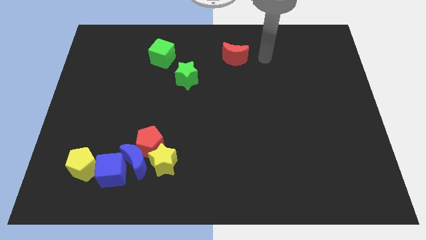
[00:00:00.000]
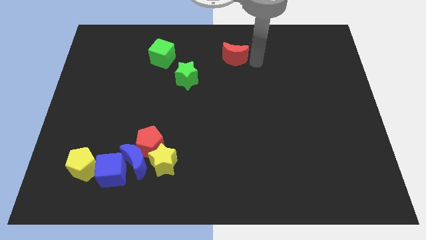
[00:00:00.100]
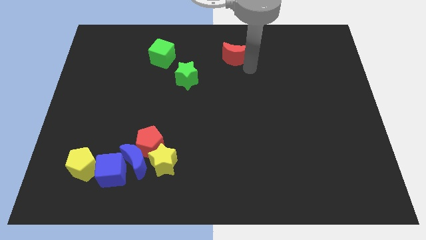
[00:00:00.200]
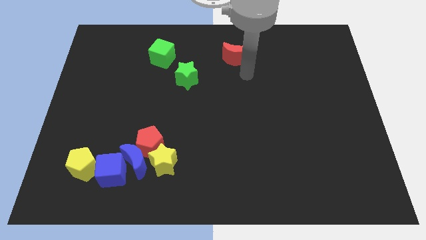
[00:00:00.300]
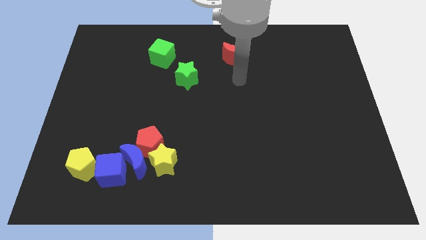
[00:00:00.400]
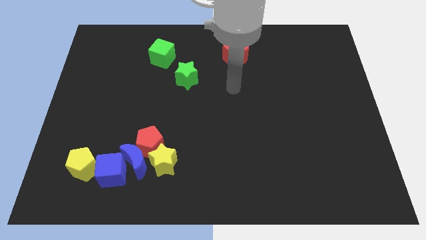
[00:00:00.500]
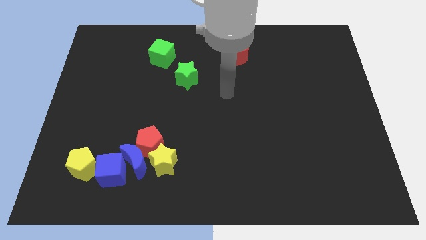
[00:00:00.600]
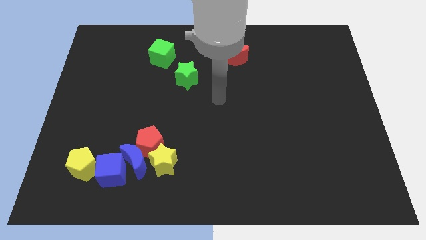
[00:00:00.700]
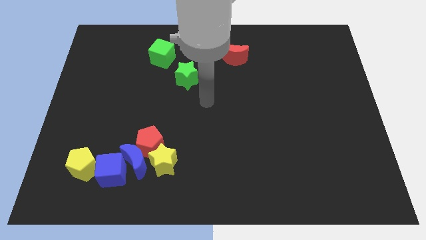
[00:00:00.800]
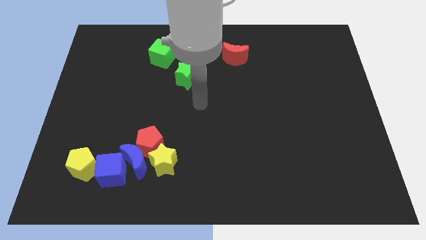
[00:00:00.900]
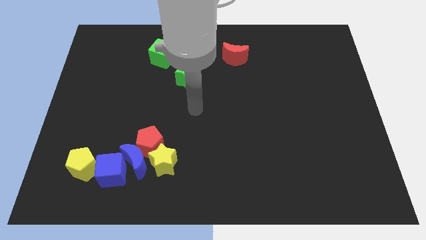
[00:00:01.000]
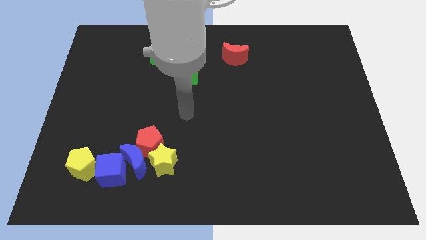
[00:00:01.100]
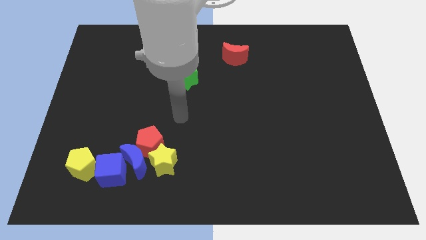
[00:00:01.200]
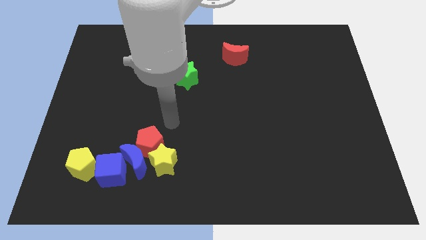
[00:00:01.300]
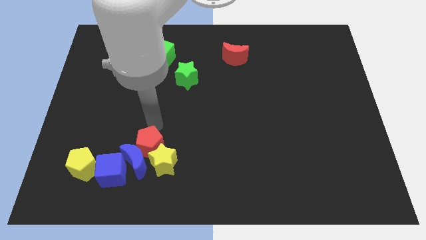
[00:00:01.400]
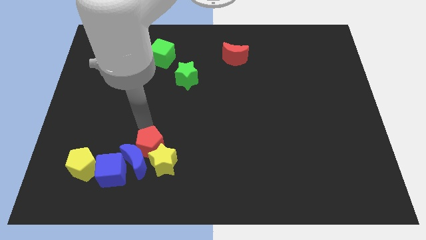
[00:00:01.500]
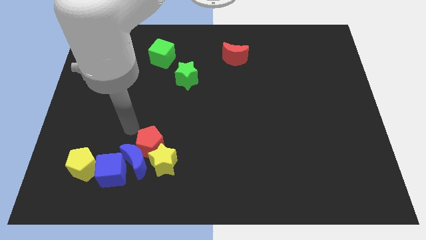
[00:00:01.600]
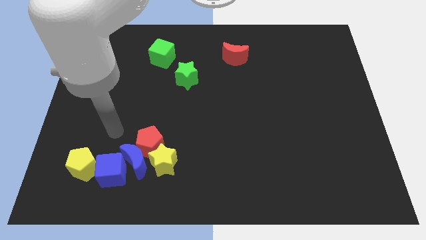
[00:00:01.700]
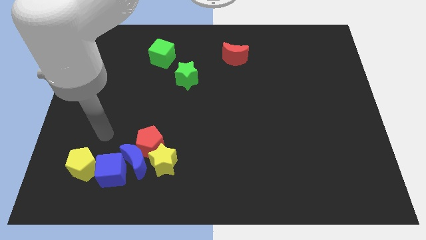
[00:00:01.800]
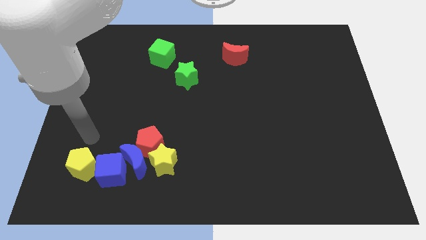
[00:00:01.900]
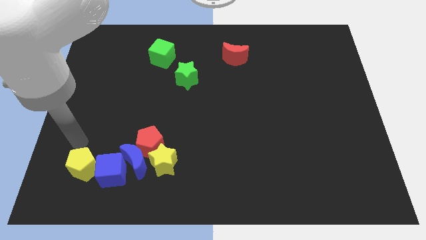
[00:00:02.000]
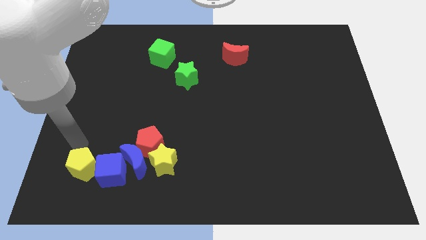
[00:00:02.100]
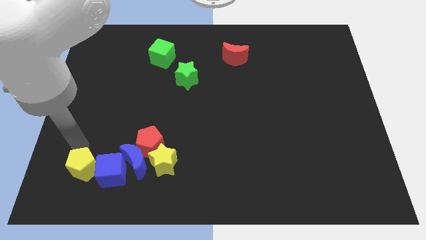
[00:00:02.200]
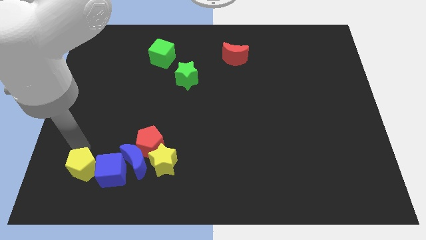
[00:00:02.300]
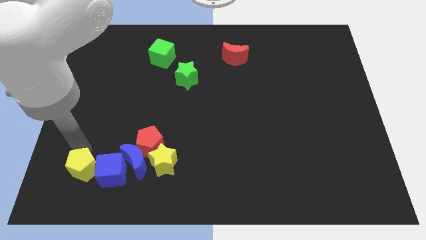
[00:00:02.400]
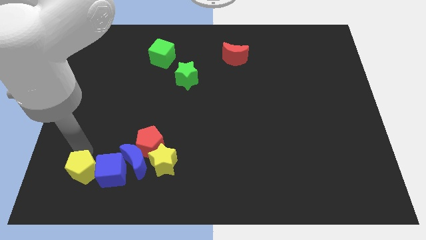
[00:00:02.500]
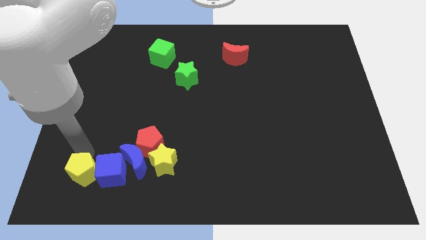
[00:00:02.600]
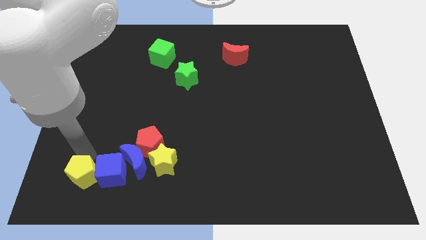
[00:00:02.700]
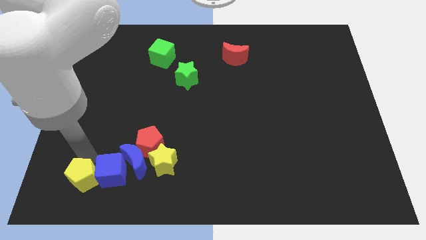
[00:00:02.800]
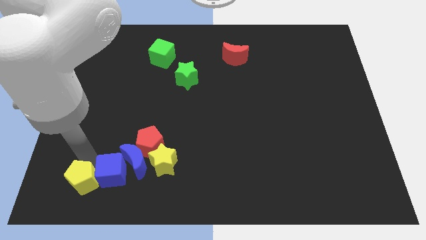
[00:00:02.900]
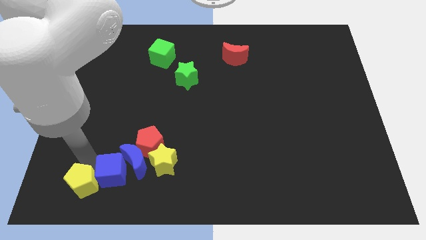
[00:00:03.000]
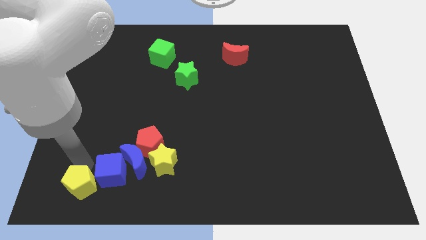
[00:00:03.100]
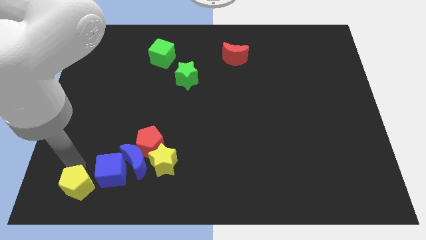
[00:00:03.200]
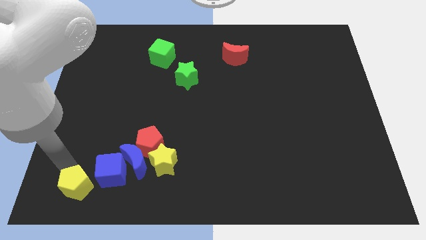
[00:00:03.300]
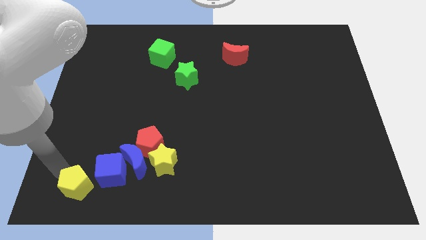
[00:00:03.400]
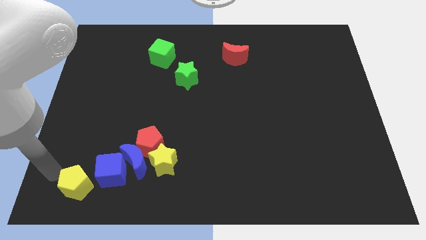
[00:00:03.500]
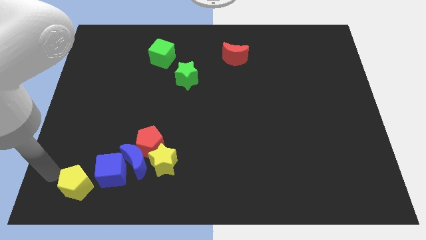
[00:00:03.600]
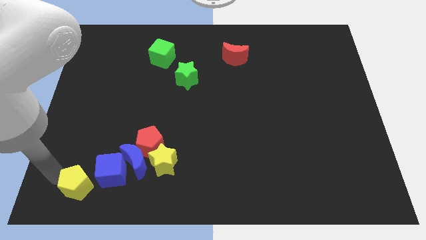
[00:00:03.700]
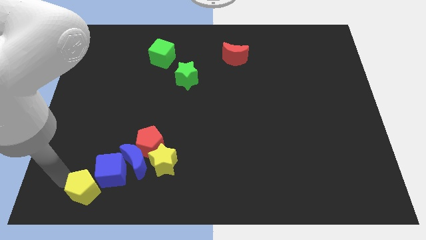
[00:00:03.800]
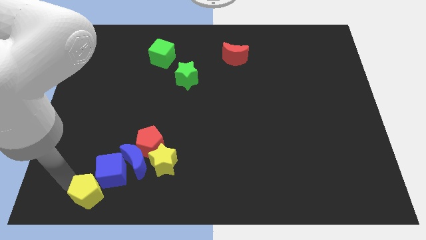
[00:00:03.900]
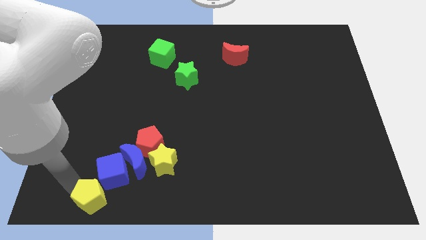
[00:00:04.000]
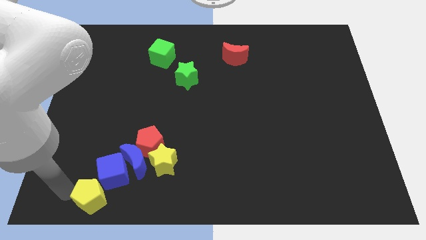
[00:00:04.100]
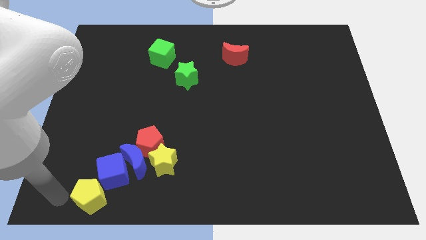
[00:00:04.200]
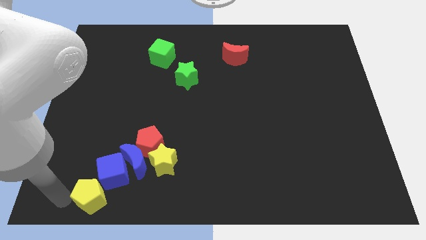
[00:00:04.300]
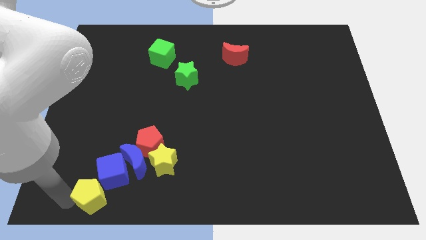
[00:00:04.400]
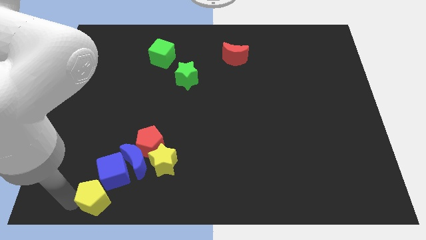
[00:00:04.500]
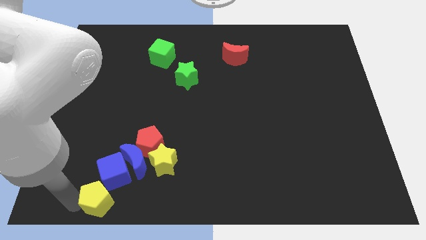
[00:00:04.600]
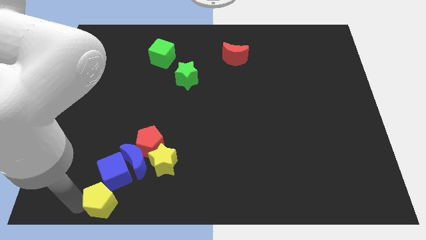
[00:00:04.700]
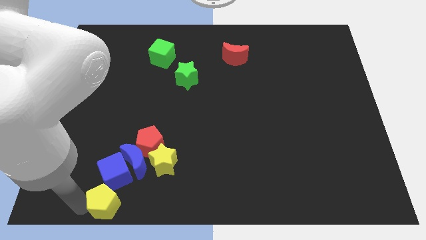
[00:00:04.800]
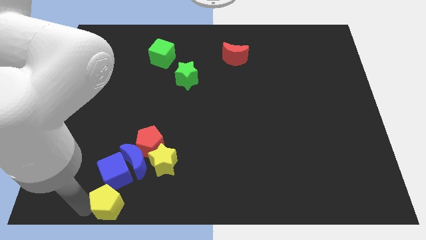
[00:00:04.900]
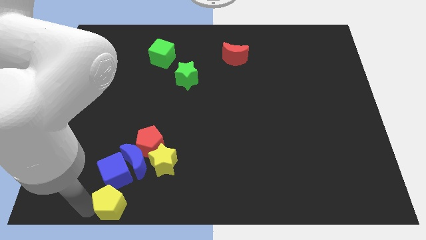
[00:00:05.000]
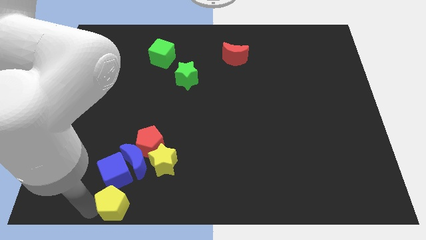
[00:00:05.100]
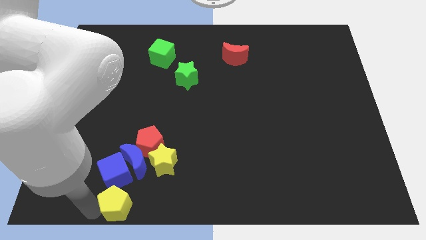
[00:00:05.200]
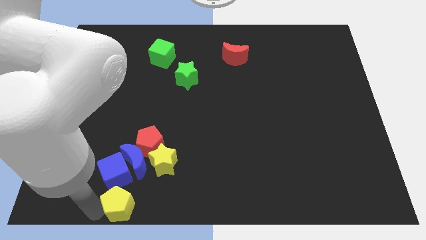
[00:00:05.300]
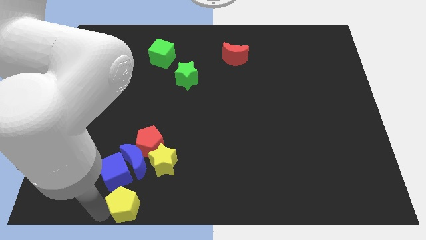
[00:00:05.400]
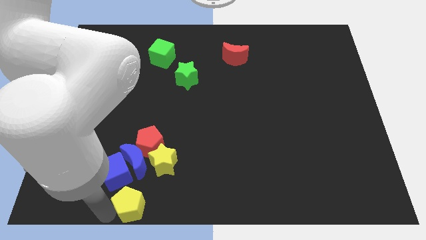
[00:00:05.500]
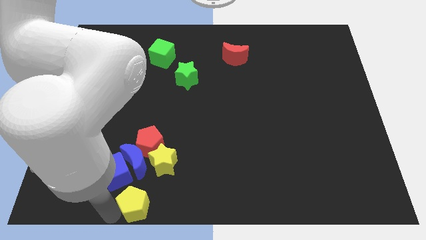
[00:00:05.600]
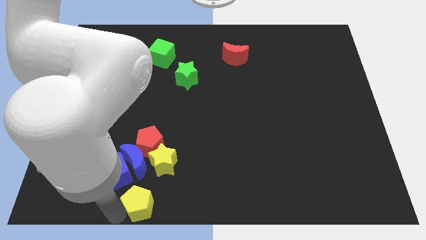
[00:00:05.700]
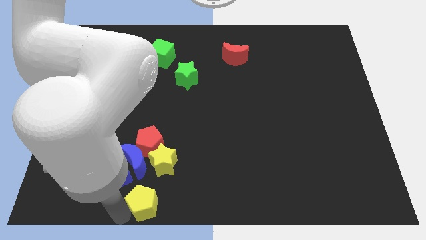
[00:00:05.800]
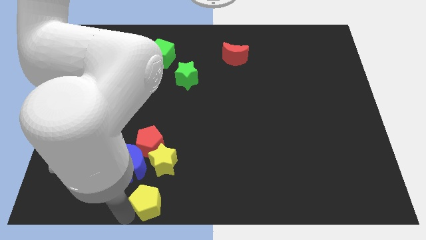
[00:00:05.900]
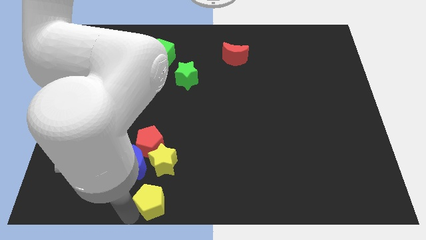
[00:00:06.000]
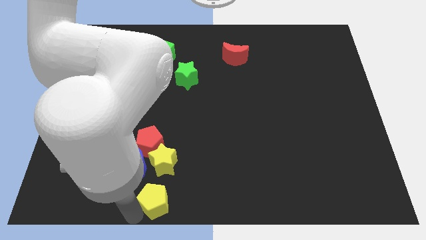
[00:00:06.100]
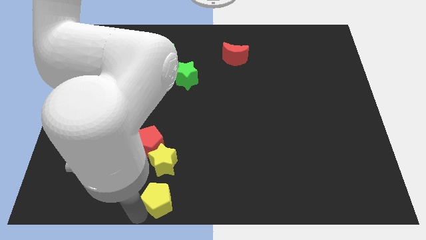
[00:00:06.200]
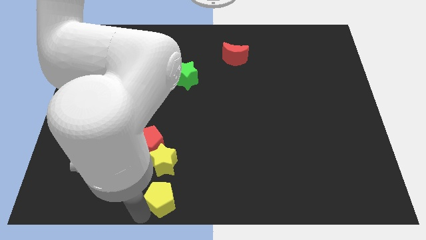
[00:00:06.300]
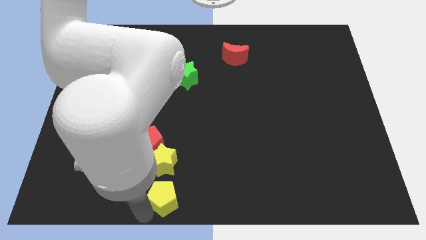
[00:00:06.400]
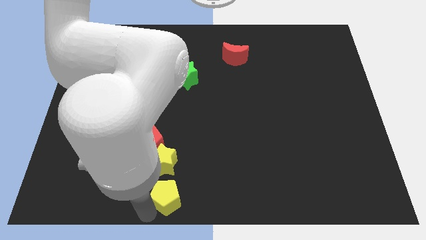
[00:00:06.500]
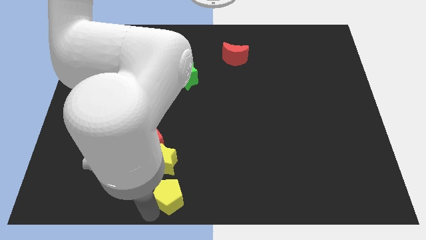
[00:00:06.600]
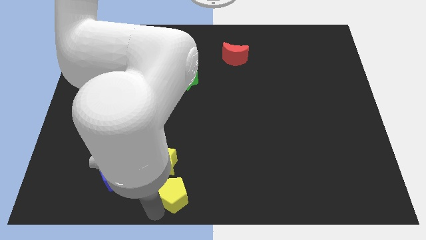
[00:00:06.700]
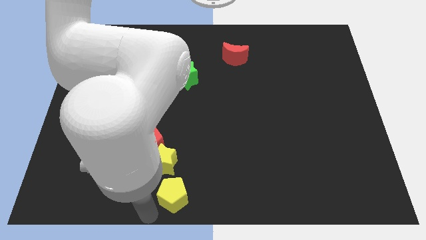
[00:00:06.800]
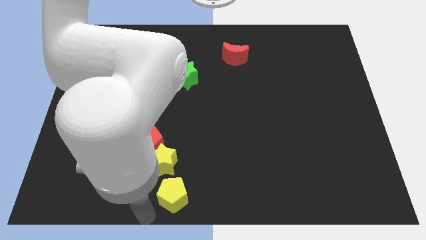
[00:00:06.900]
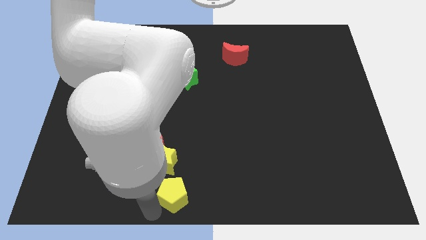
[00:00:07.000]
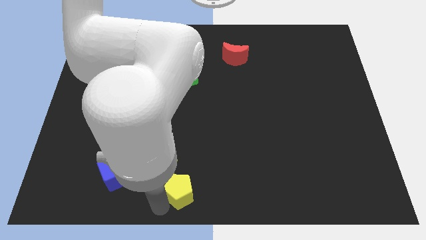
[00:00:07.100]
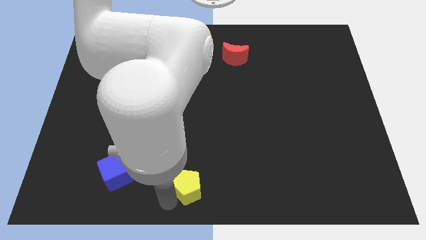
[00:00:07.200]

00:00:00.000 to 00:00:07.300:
move the yellow pentagon right

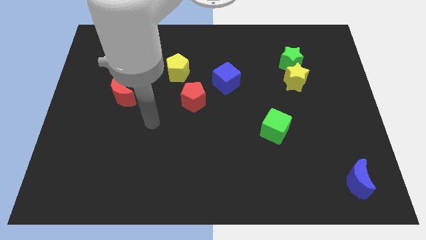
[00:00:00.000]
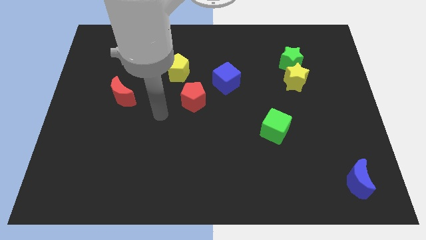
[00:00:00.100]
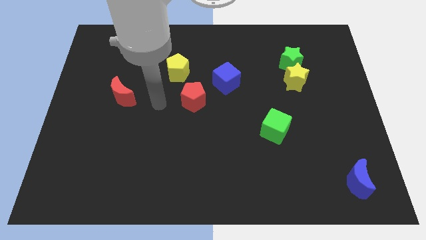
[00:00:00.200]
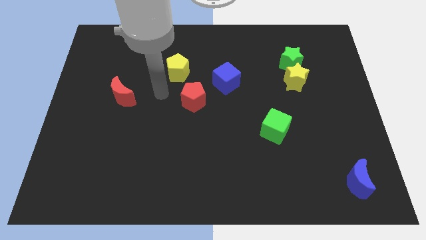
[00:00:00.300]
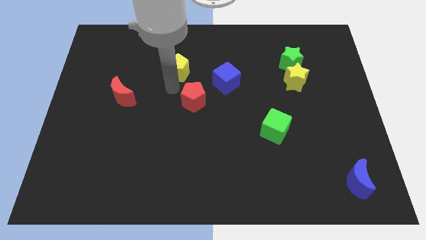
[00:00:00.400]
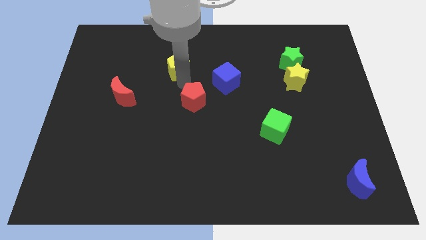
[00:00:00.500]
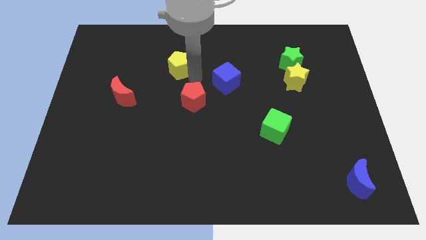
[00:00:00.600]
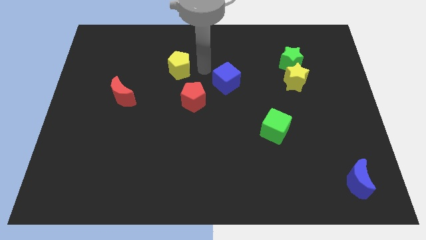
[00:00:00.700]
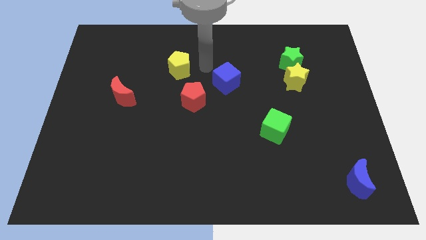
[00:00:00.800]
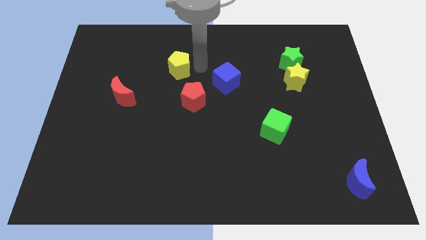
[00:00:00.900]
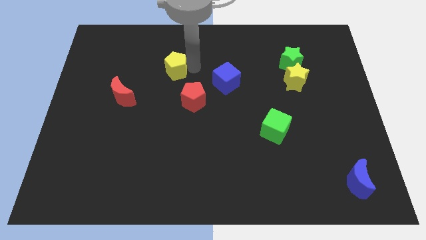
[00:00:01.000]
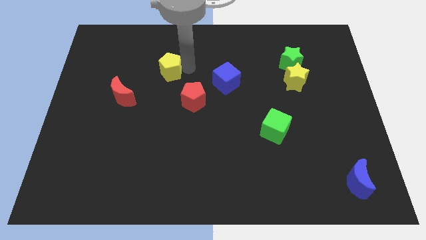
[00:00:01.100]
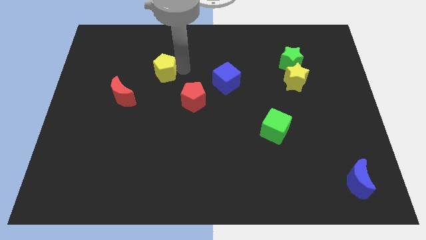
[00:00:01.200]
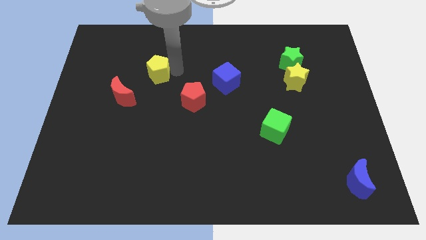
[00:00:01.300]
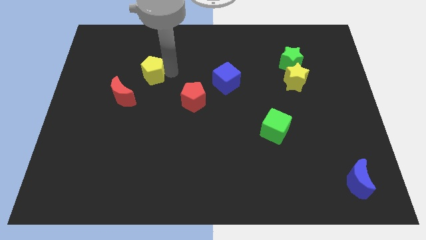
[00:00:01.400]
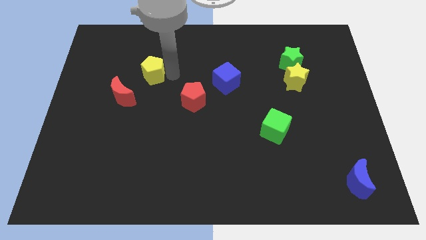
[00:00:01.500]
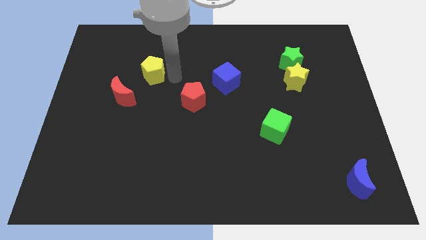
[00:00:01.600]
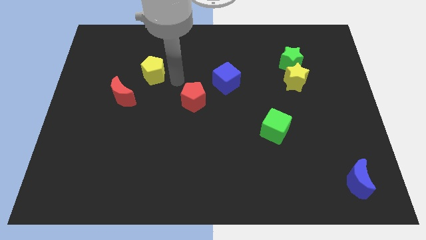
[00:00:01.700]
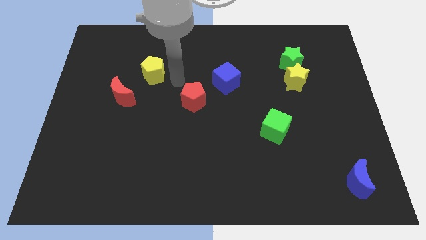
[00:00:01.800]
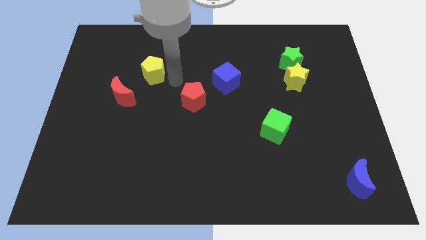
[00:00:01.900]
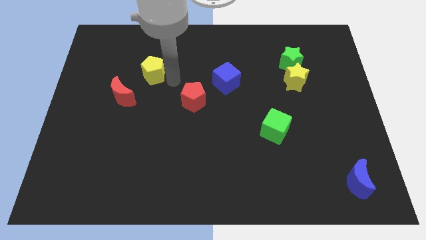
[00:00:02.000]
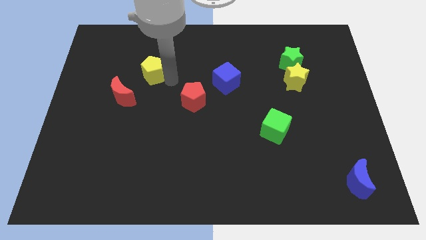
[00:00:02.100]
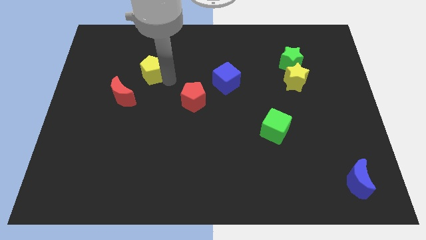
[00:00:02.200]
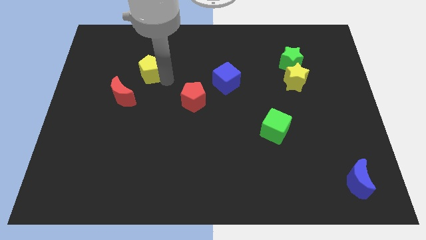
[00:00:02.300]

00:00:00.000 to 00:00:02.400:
slightly slide the yellow pentagon left
